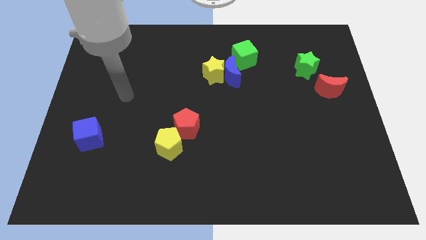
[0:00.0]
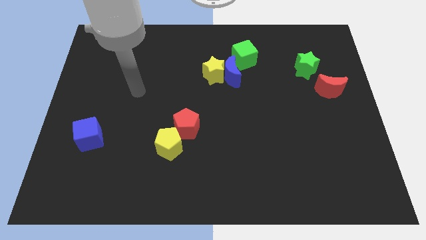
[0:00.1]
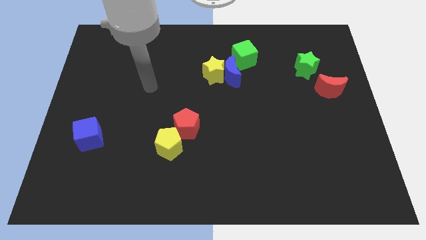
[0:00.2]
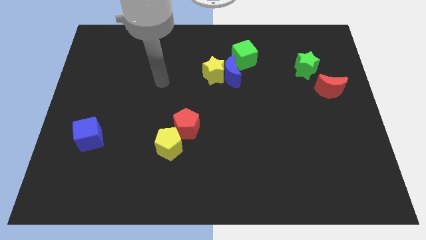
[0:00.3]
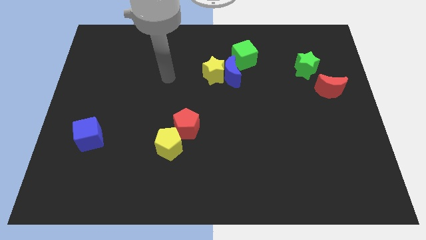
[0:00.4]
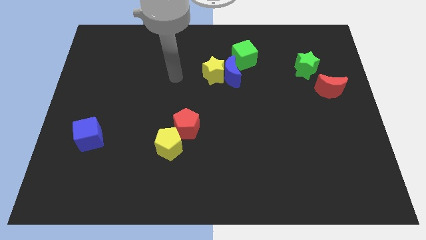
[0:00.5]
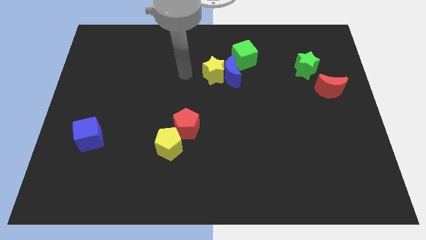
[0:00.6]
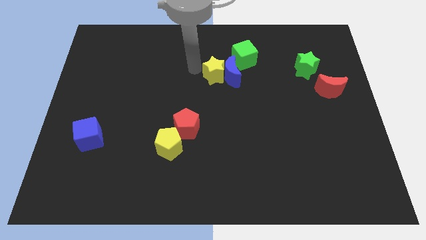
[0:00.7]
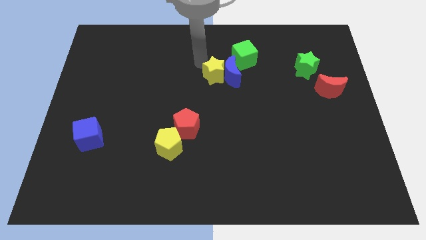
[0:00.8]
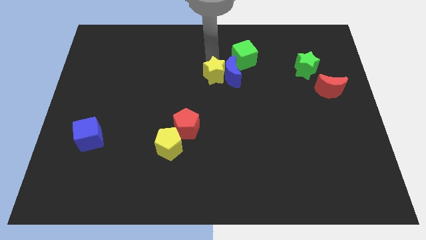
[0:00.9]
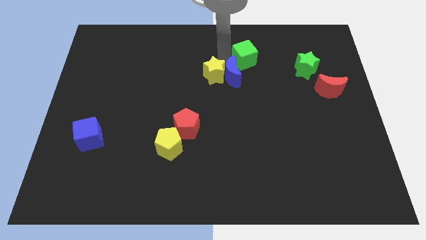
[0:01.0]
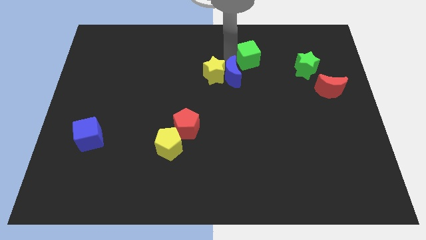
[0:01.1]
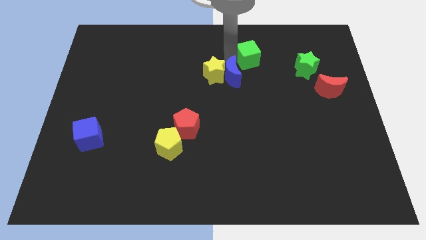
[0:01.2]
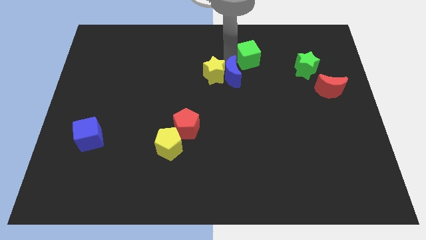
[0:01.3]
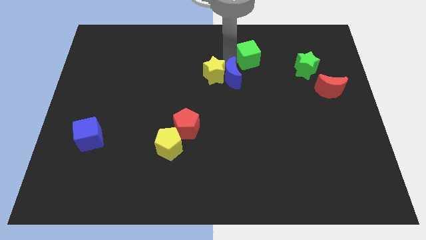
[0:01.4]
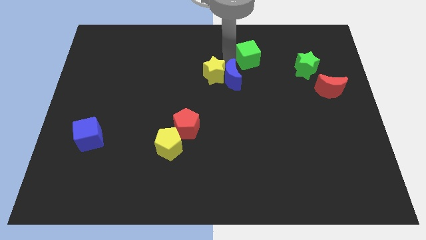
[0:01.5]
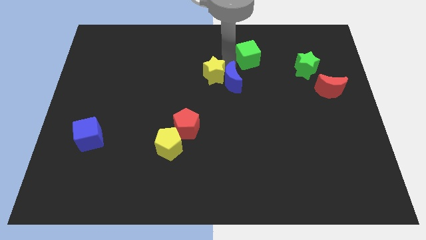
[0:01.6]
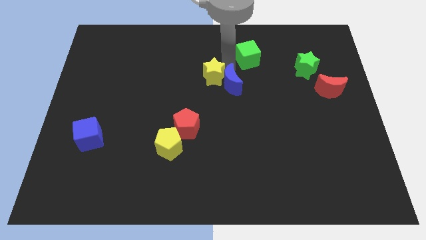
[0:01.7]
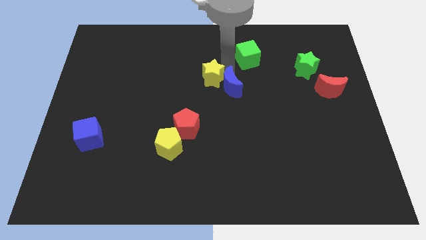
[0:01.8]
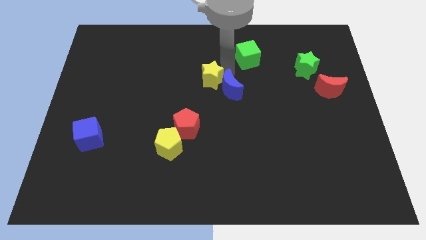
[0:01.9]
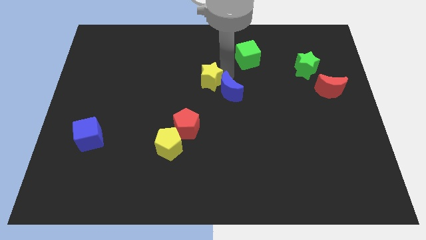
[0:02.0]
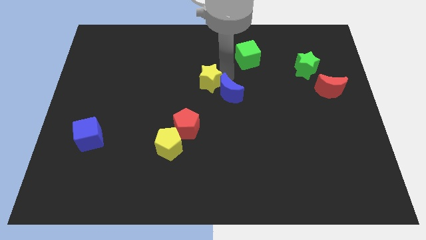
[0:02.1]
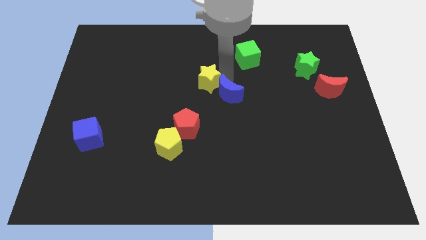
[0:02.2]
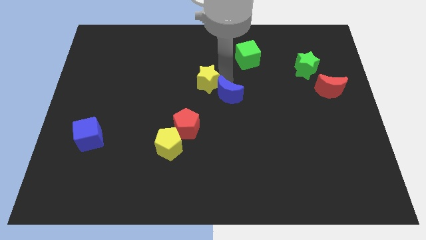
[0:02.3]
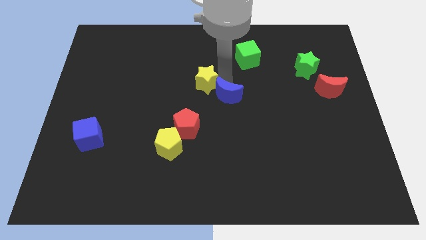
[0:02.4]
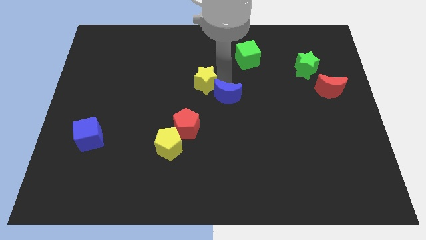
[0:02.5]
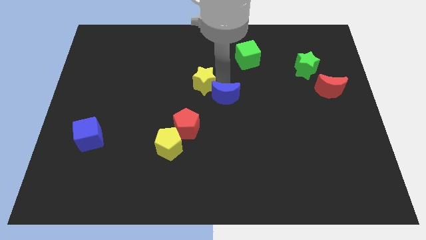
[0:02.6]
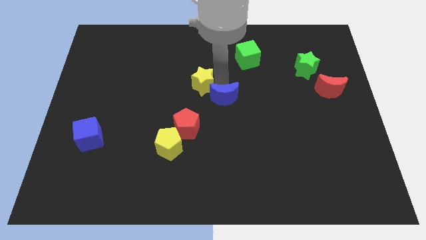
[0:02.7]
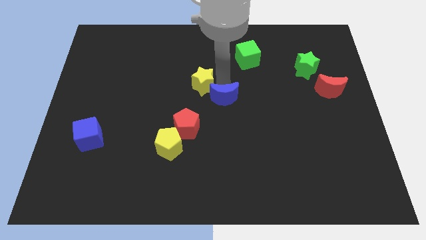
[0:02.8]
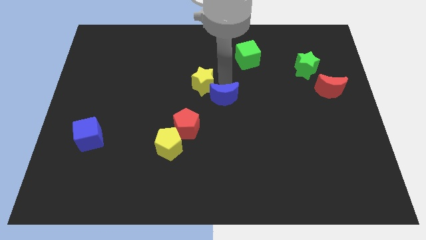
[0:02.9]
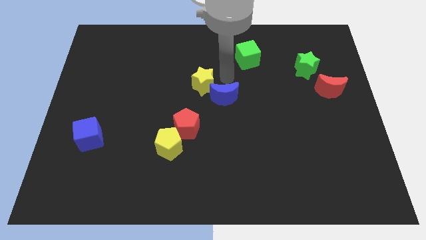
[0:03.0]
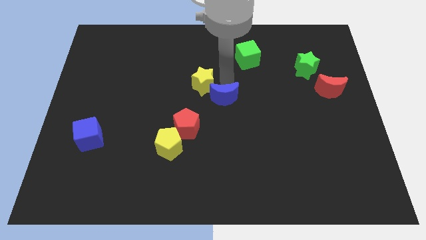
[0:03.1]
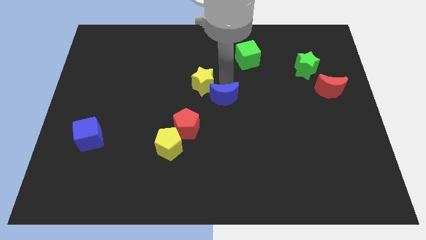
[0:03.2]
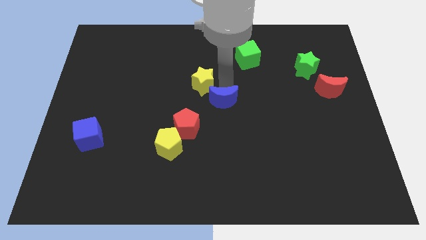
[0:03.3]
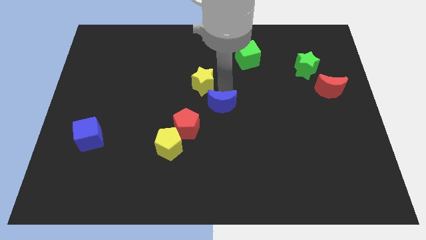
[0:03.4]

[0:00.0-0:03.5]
move the blue moon away from the yellow star and green cube

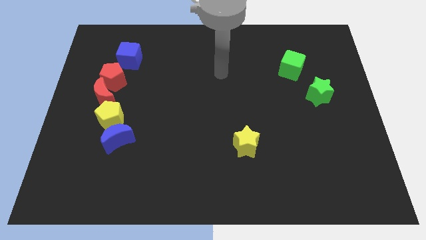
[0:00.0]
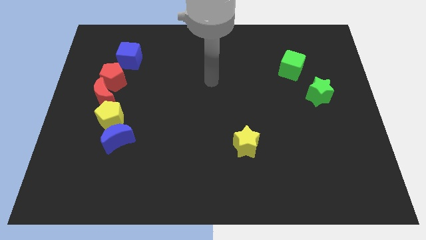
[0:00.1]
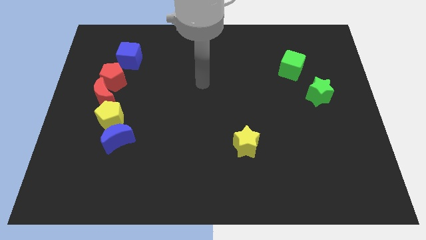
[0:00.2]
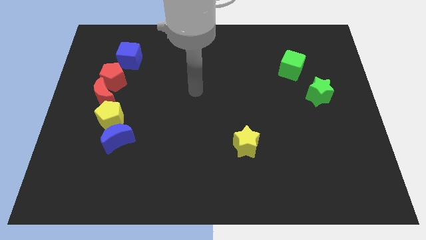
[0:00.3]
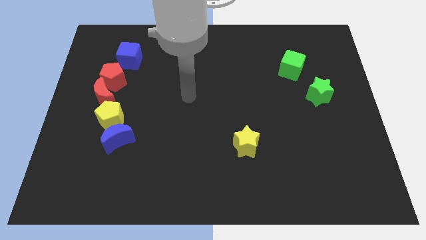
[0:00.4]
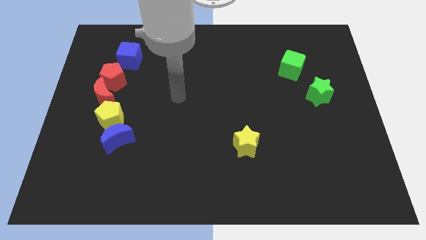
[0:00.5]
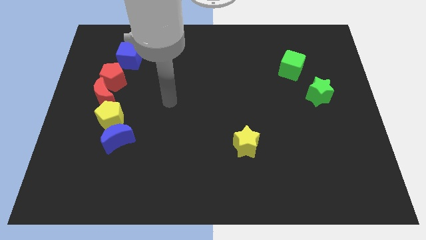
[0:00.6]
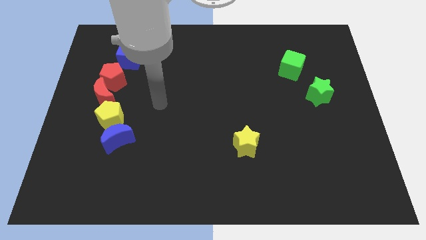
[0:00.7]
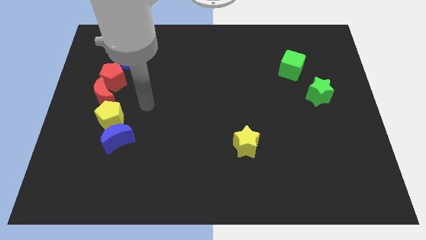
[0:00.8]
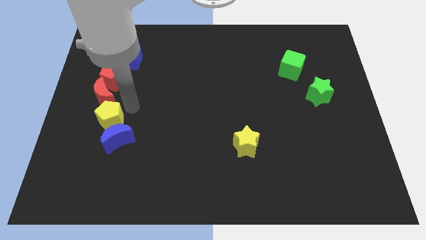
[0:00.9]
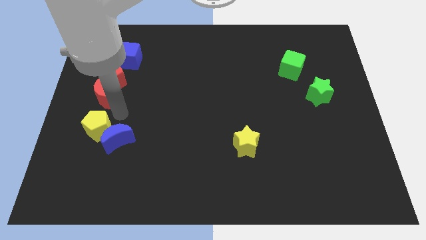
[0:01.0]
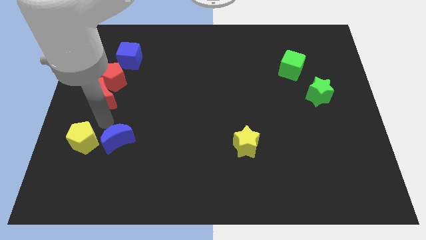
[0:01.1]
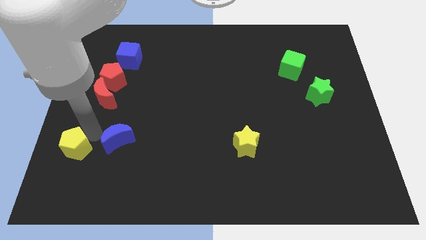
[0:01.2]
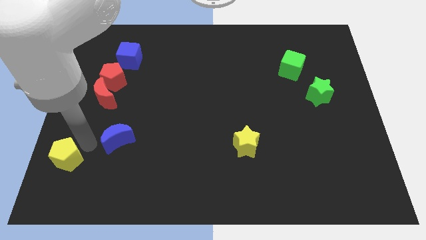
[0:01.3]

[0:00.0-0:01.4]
separate the blue moon from the yellow pentagon

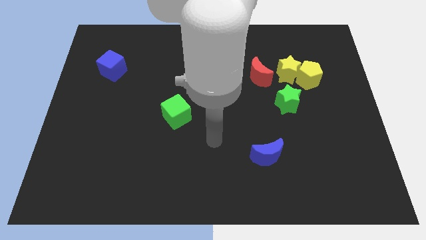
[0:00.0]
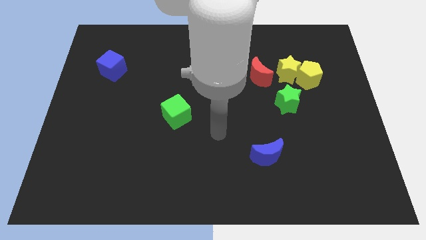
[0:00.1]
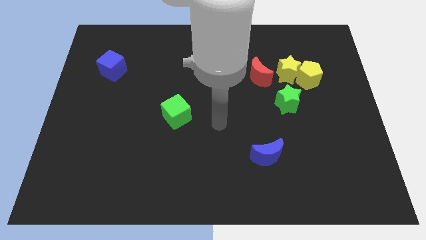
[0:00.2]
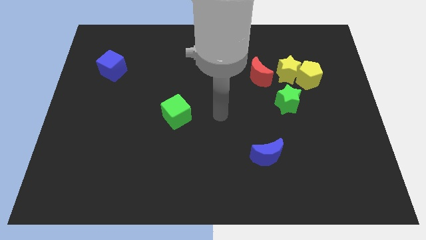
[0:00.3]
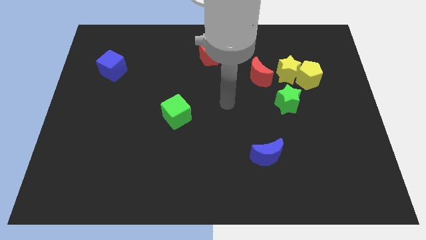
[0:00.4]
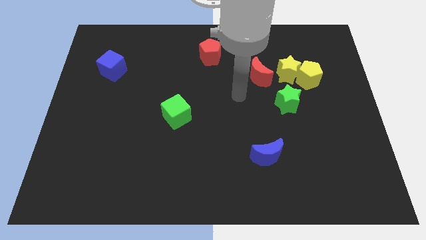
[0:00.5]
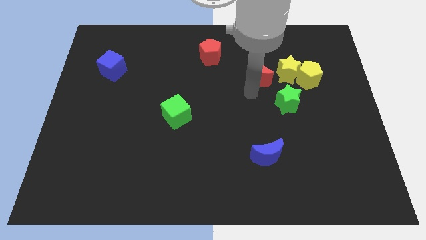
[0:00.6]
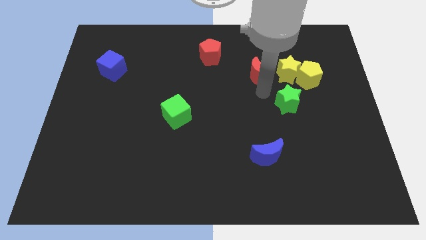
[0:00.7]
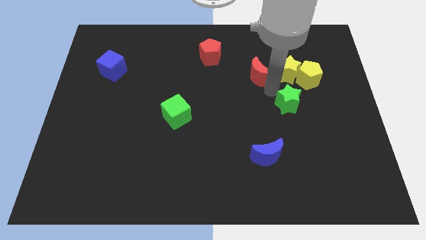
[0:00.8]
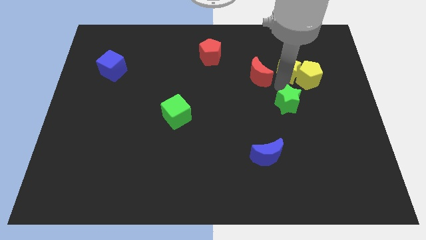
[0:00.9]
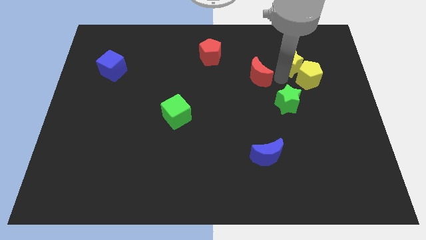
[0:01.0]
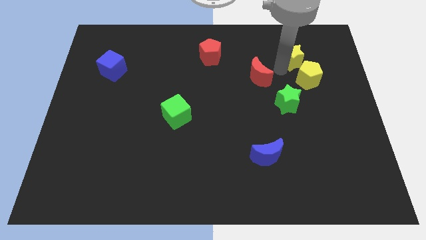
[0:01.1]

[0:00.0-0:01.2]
move the red moon away from the yellow star

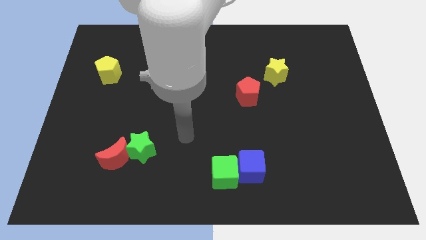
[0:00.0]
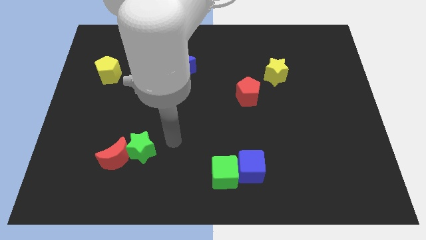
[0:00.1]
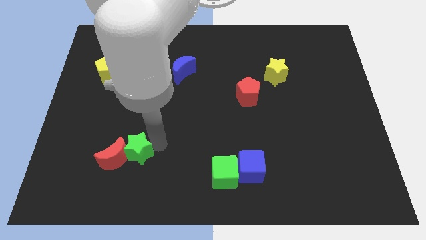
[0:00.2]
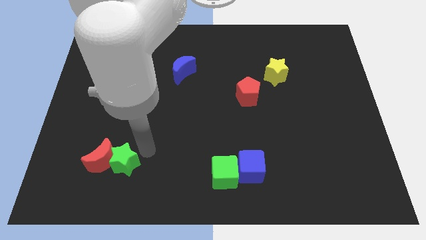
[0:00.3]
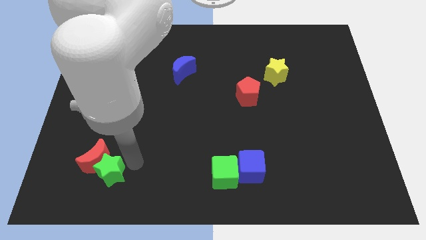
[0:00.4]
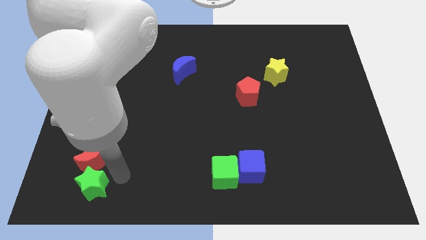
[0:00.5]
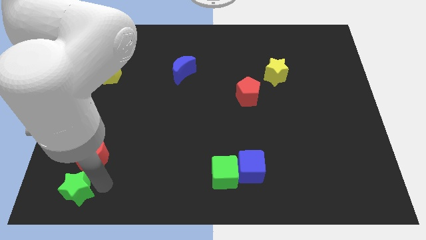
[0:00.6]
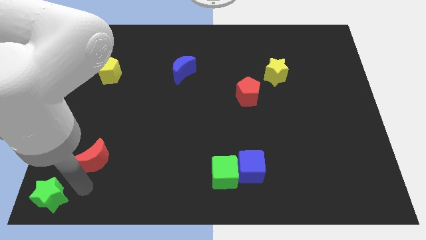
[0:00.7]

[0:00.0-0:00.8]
separate the red moon from the green star

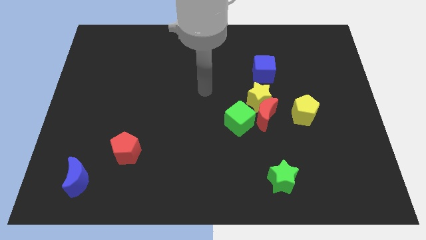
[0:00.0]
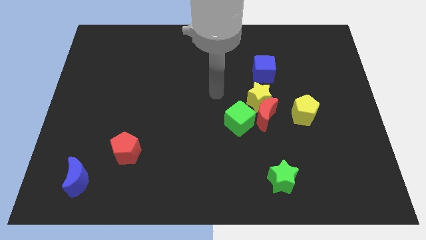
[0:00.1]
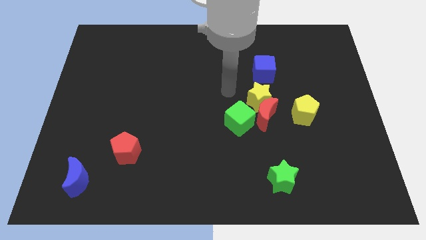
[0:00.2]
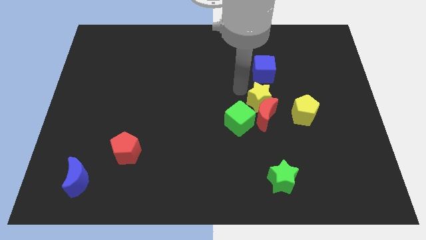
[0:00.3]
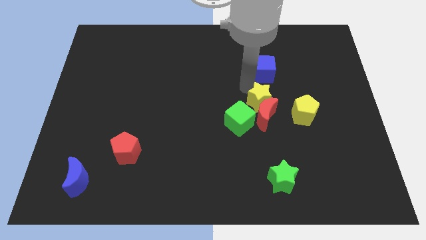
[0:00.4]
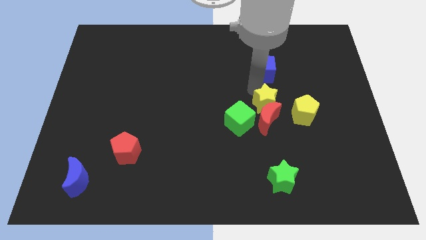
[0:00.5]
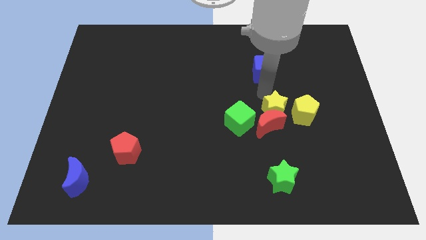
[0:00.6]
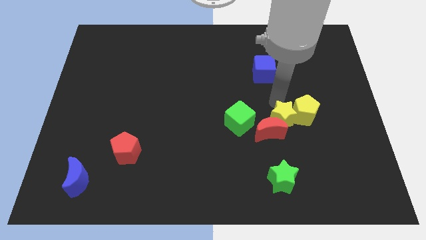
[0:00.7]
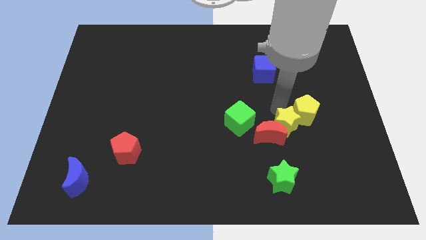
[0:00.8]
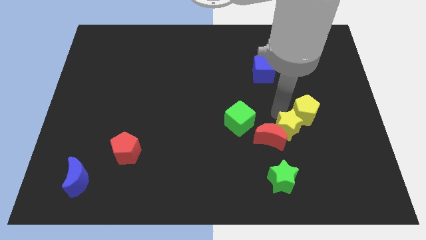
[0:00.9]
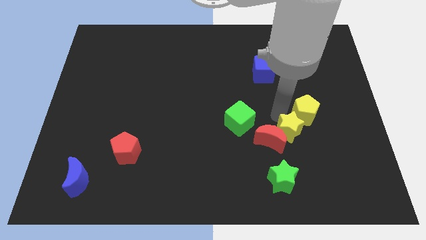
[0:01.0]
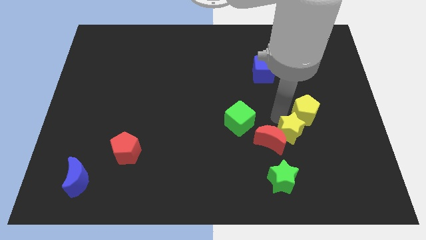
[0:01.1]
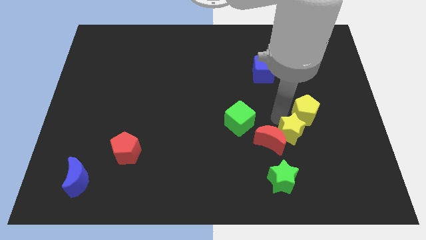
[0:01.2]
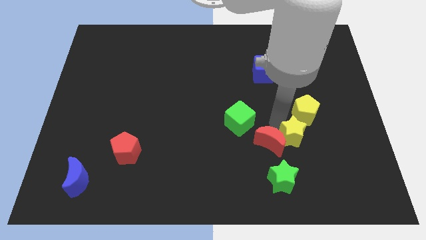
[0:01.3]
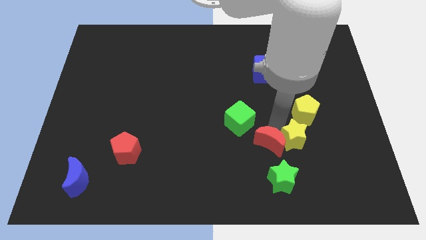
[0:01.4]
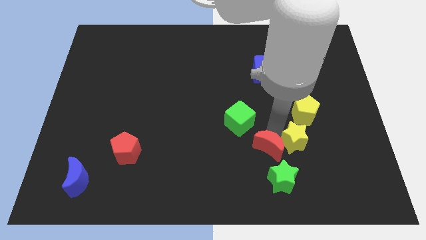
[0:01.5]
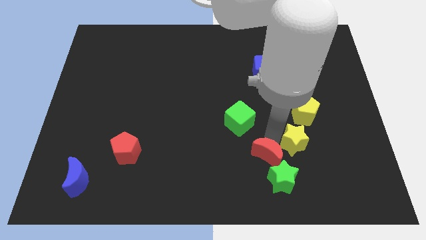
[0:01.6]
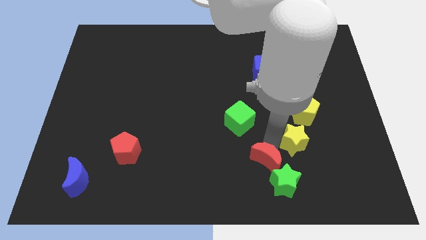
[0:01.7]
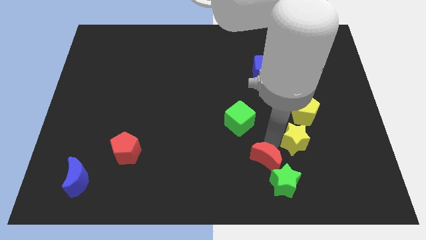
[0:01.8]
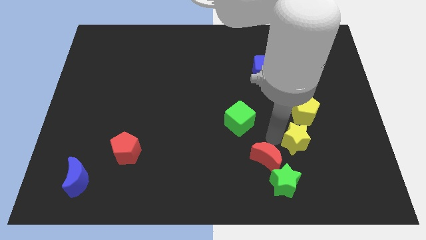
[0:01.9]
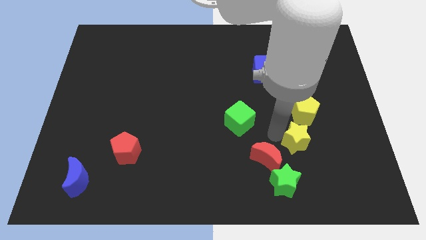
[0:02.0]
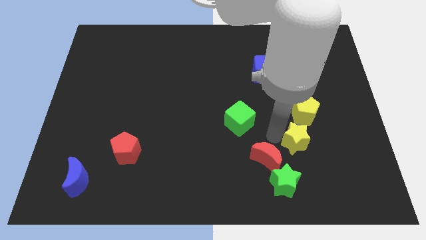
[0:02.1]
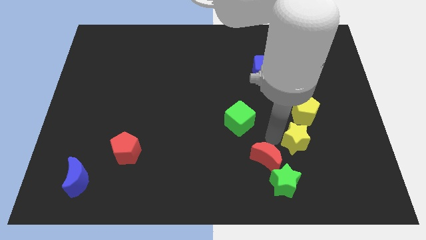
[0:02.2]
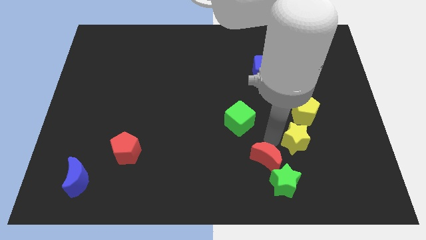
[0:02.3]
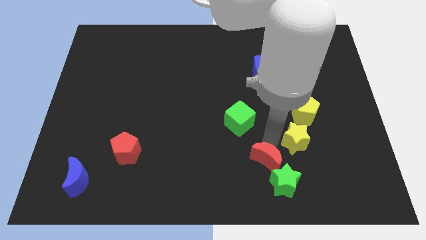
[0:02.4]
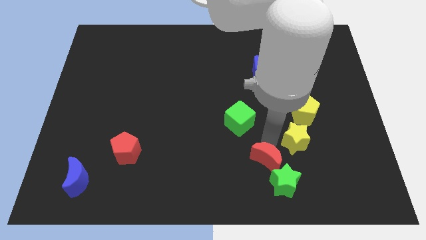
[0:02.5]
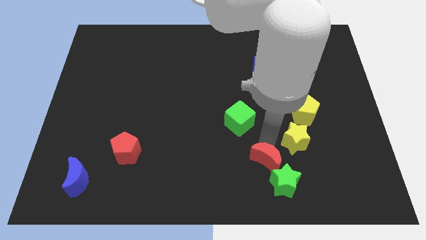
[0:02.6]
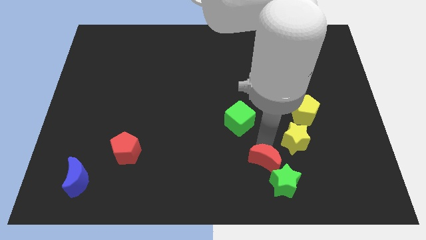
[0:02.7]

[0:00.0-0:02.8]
separate the red moon from the group
